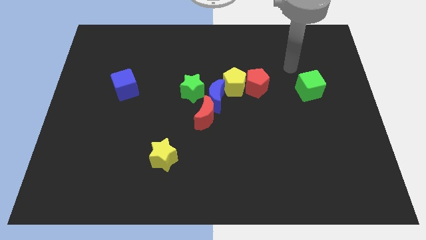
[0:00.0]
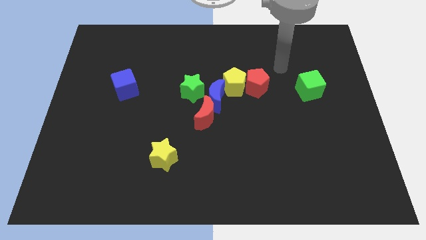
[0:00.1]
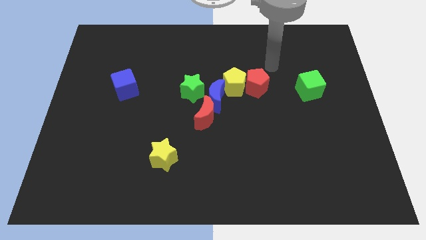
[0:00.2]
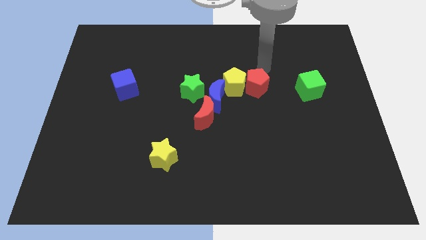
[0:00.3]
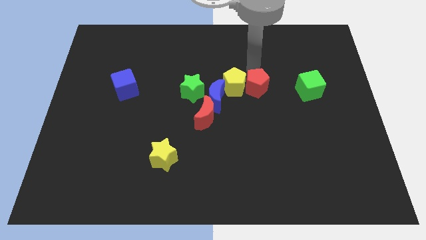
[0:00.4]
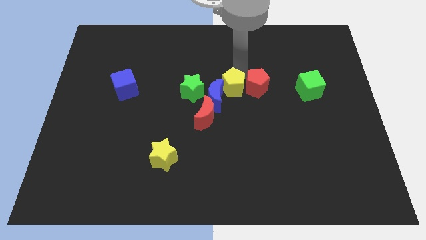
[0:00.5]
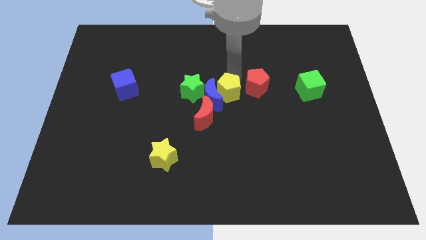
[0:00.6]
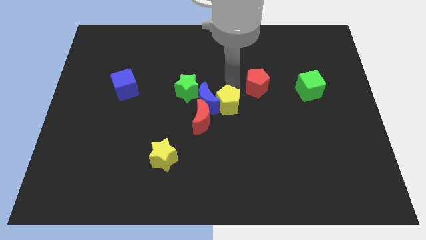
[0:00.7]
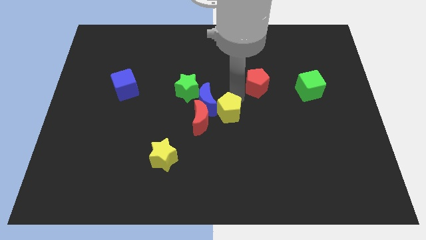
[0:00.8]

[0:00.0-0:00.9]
move the red pentagon away from the yellow pentagon

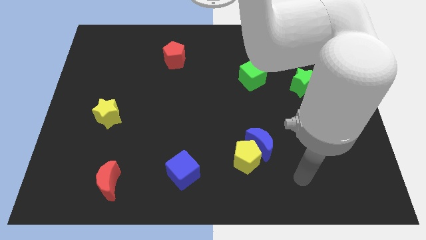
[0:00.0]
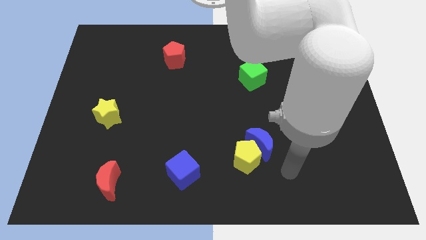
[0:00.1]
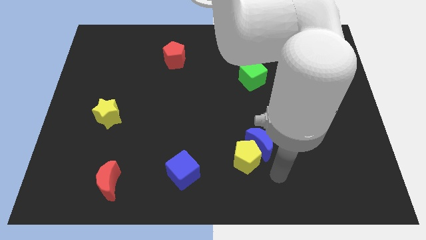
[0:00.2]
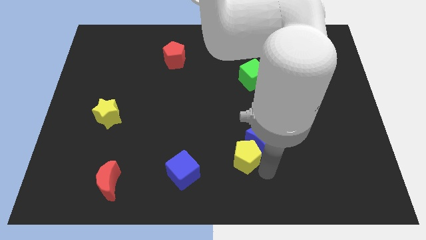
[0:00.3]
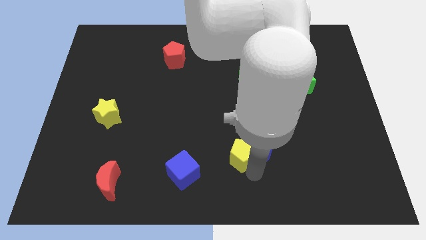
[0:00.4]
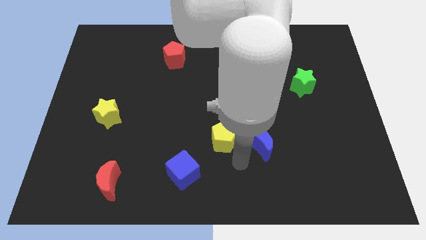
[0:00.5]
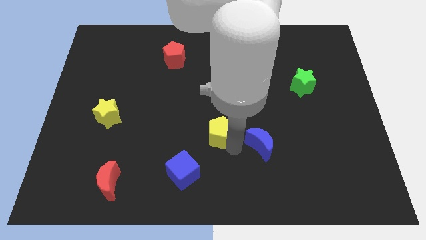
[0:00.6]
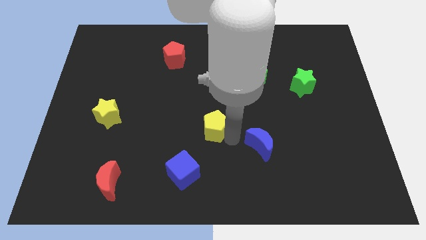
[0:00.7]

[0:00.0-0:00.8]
pull the blue moon apart from the yellow pentagon

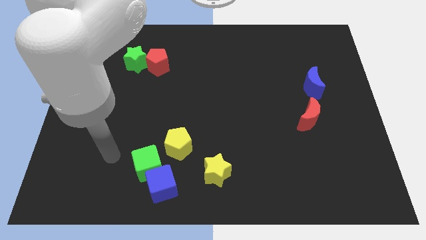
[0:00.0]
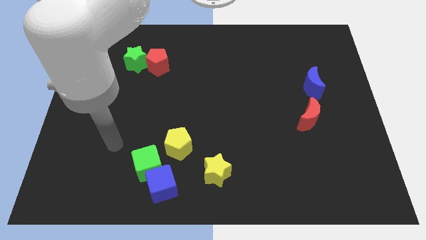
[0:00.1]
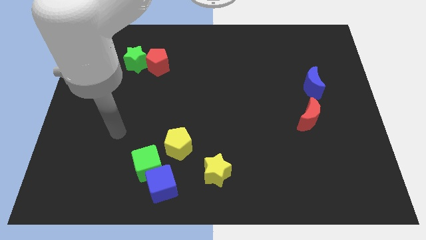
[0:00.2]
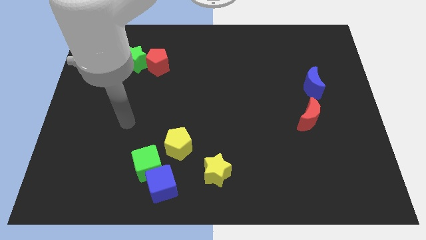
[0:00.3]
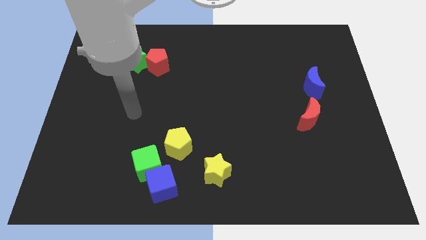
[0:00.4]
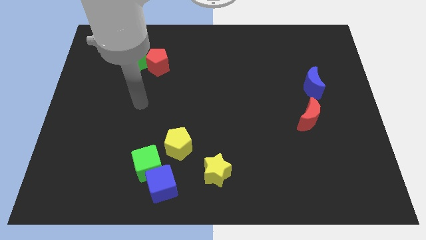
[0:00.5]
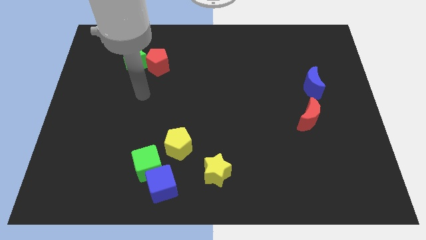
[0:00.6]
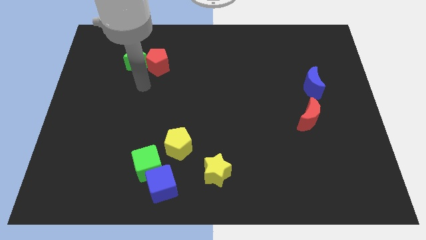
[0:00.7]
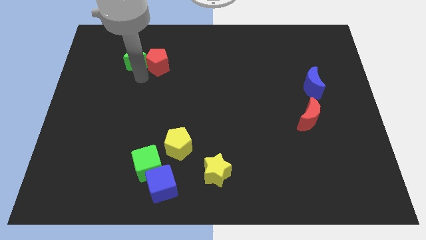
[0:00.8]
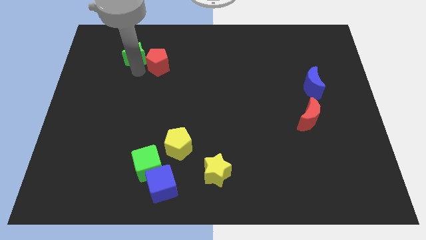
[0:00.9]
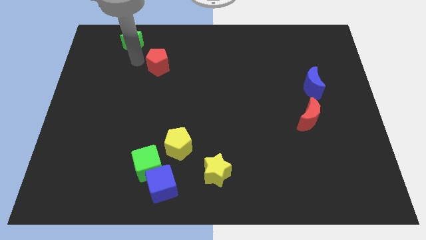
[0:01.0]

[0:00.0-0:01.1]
move the red pentagon away from the green star

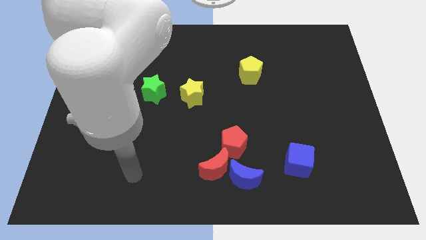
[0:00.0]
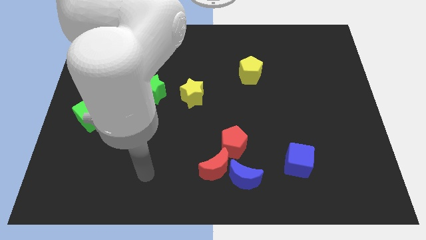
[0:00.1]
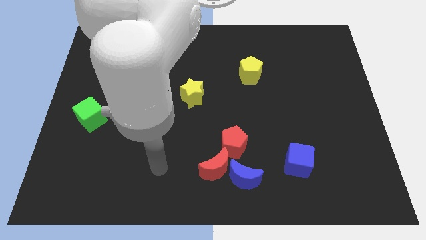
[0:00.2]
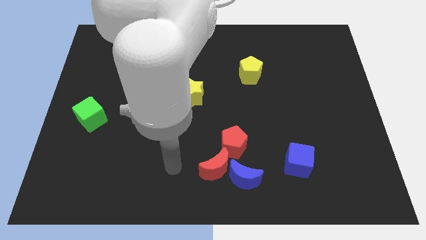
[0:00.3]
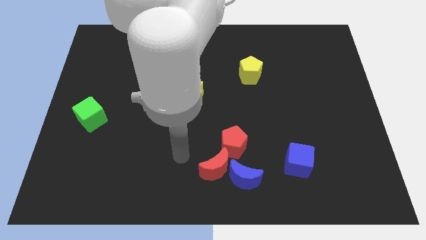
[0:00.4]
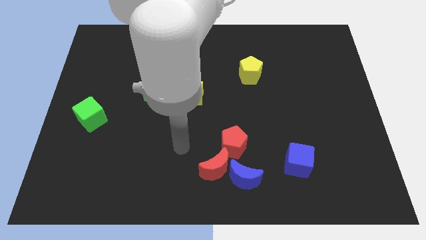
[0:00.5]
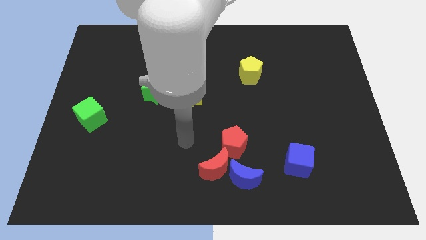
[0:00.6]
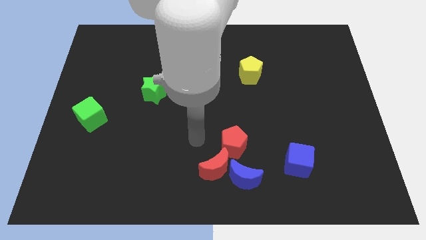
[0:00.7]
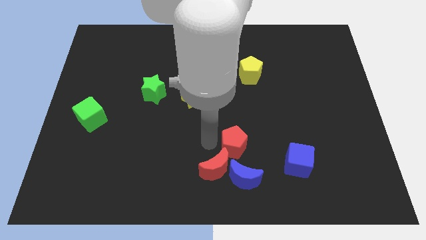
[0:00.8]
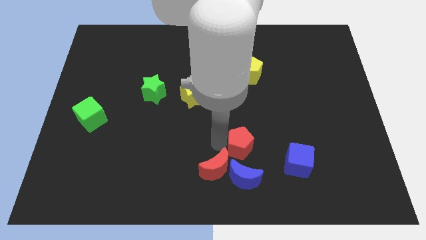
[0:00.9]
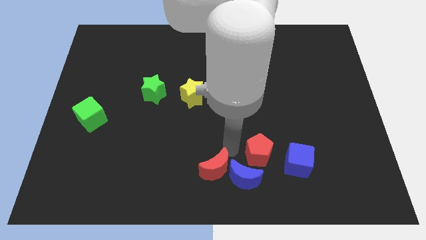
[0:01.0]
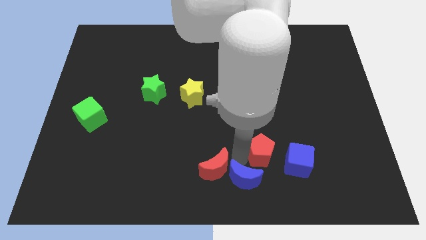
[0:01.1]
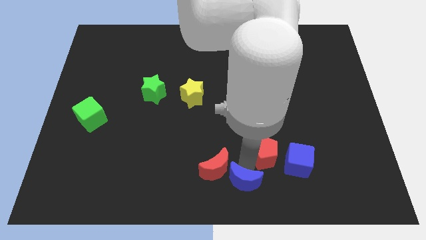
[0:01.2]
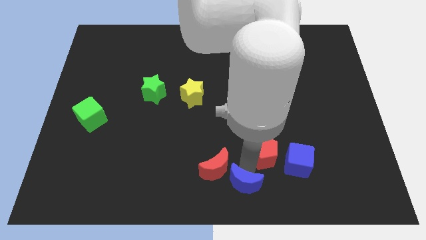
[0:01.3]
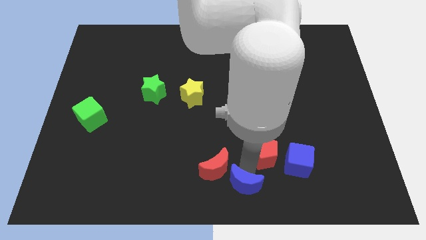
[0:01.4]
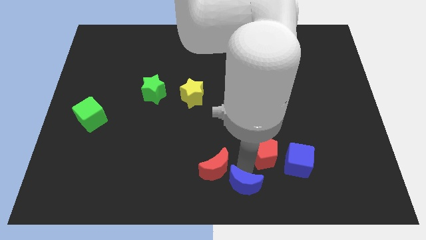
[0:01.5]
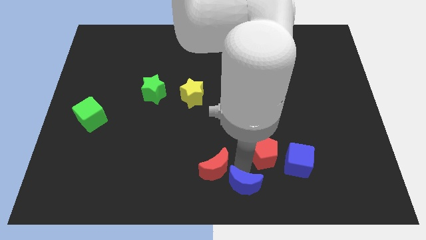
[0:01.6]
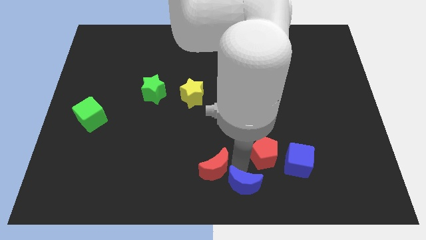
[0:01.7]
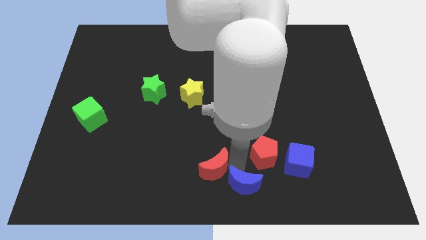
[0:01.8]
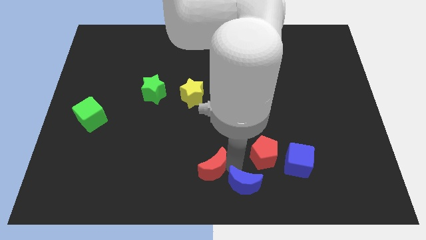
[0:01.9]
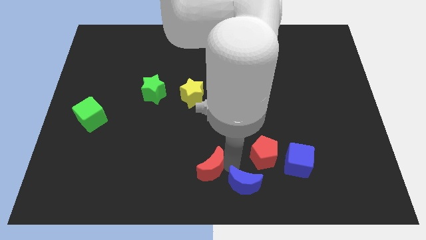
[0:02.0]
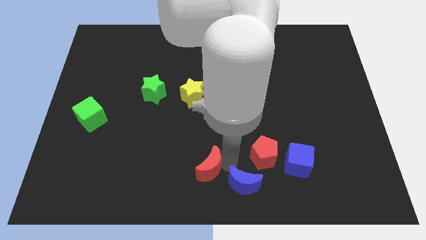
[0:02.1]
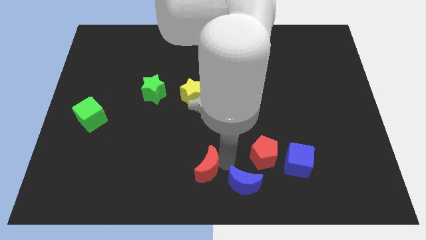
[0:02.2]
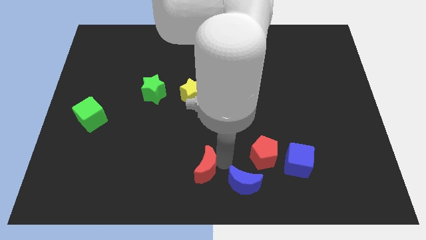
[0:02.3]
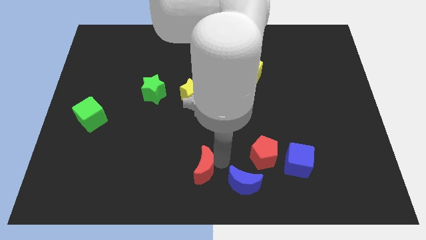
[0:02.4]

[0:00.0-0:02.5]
move the red moon away from the blue moon and red pentagon

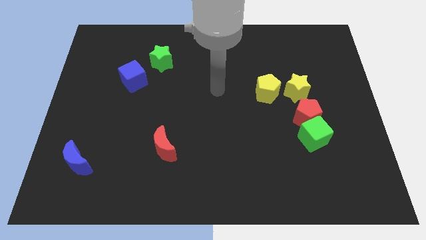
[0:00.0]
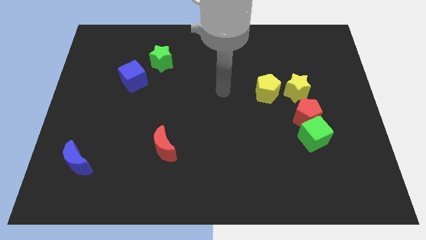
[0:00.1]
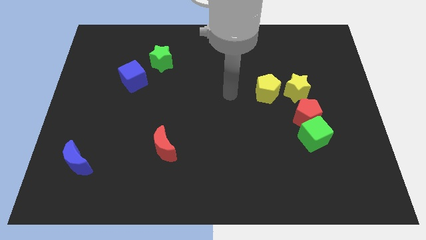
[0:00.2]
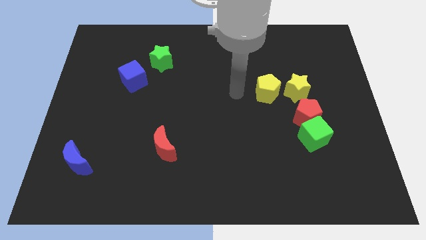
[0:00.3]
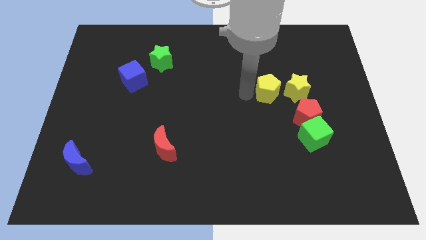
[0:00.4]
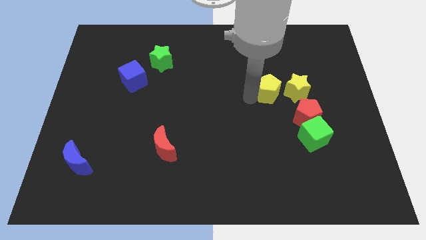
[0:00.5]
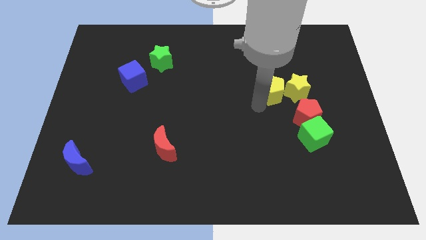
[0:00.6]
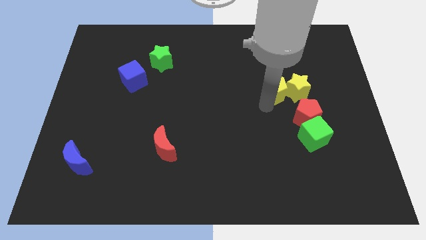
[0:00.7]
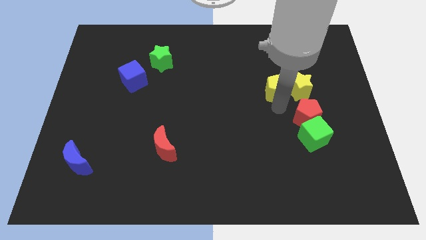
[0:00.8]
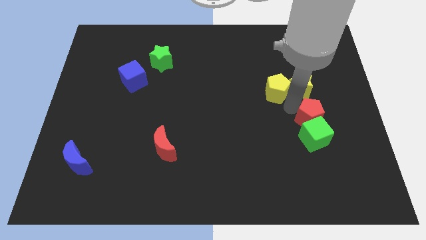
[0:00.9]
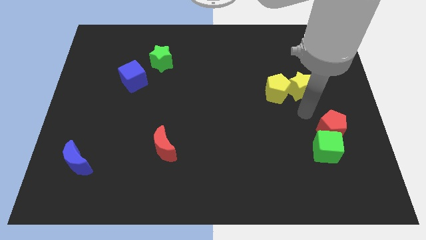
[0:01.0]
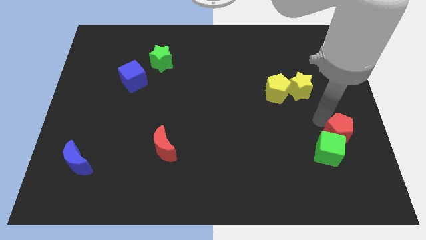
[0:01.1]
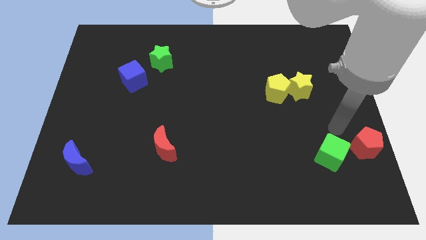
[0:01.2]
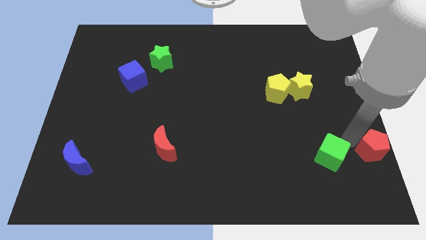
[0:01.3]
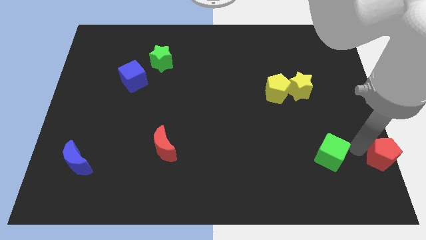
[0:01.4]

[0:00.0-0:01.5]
move the green cube away from the red pentagon

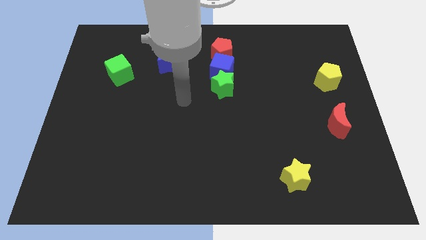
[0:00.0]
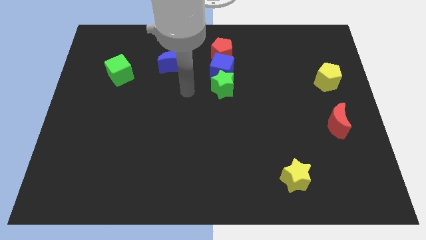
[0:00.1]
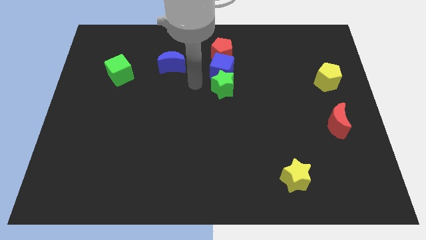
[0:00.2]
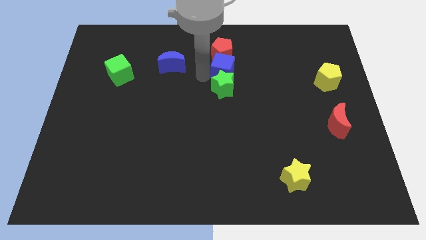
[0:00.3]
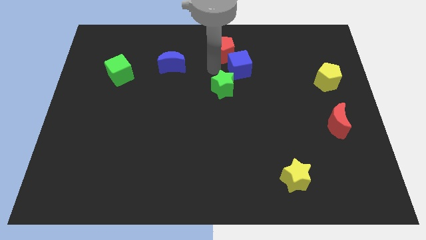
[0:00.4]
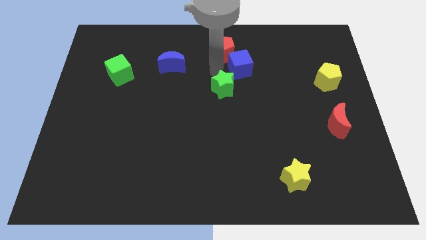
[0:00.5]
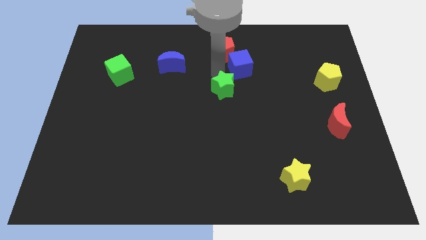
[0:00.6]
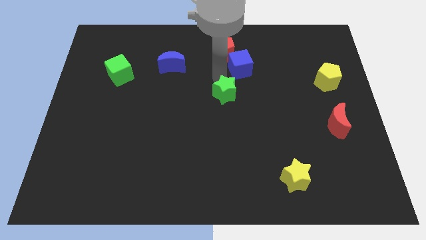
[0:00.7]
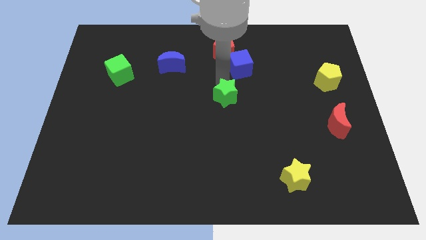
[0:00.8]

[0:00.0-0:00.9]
pull the green star apart from the blue cube

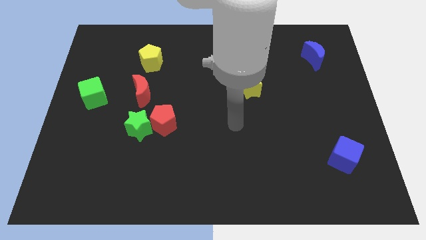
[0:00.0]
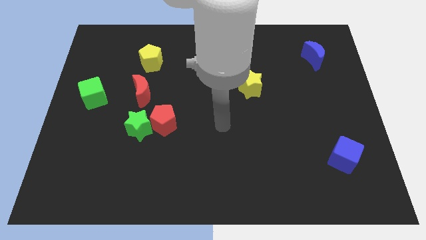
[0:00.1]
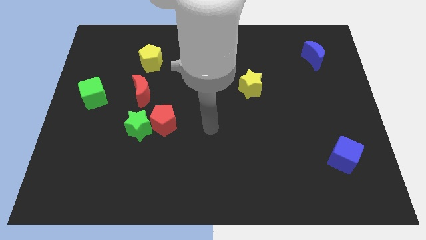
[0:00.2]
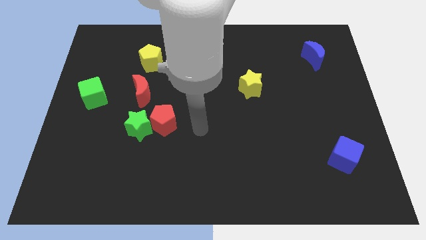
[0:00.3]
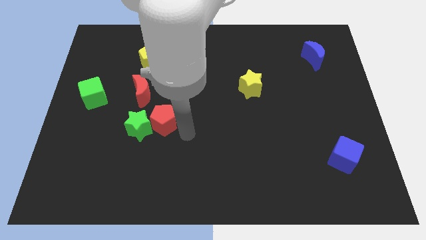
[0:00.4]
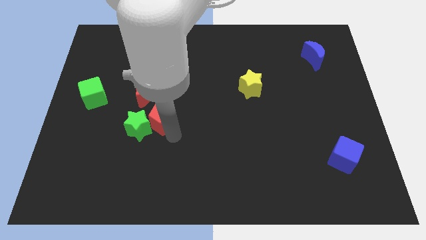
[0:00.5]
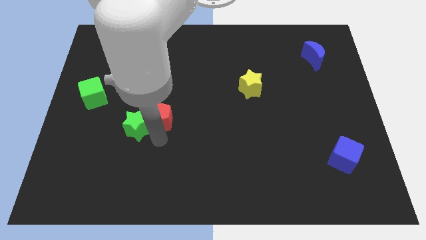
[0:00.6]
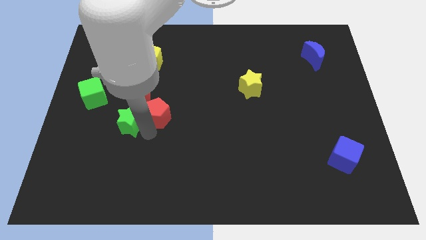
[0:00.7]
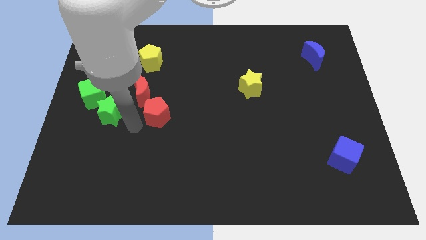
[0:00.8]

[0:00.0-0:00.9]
pull the red pentagon apart from the green star

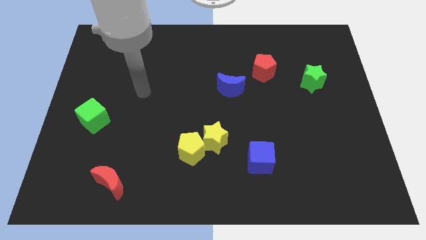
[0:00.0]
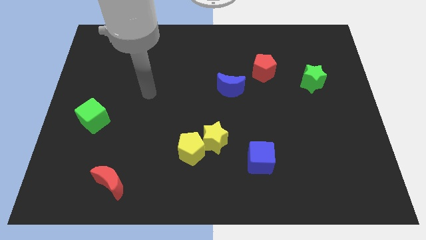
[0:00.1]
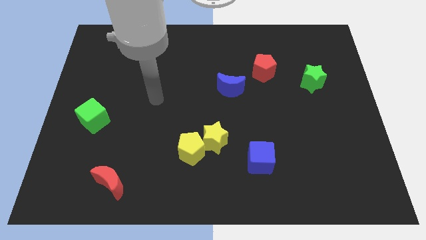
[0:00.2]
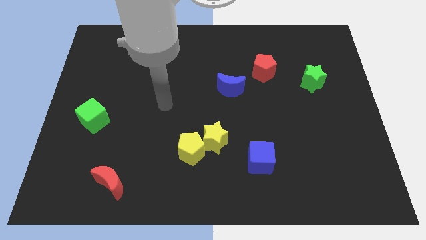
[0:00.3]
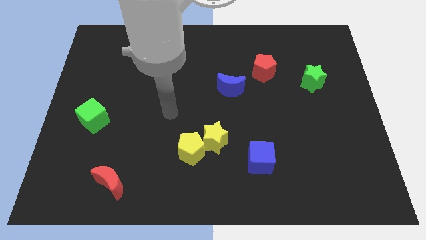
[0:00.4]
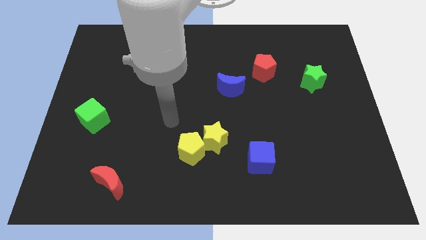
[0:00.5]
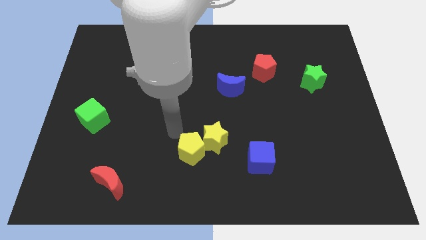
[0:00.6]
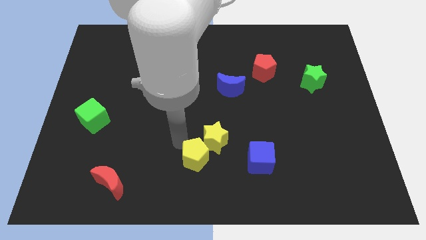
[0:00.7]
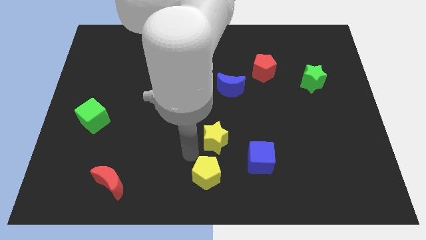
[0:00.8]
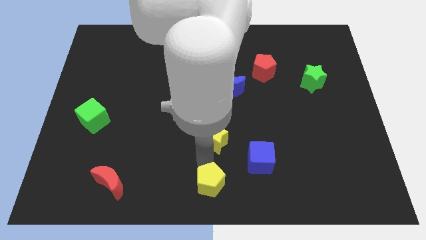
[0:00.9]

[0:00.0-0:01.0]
move the yellow star away from the yellow pentagon
